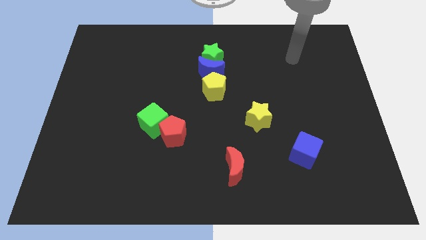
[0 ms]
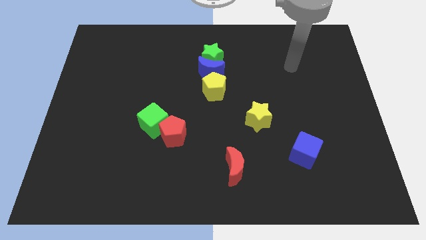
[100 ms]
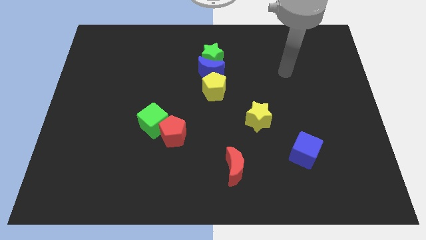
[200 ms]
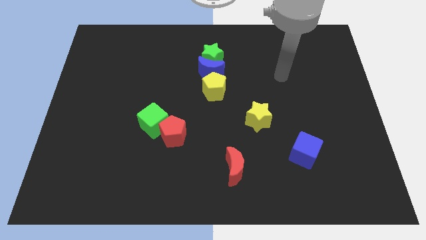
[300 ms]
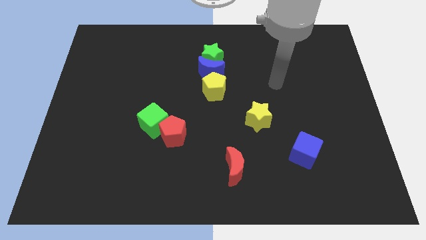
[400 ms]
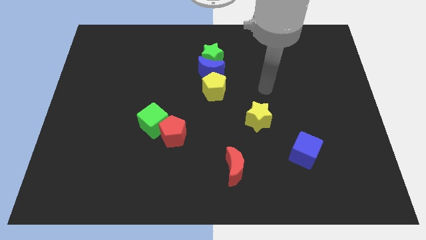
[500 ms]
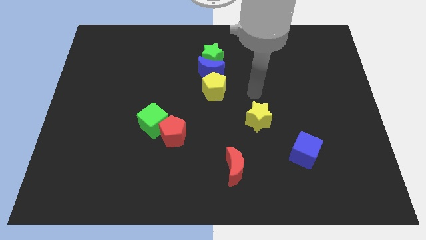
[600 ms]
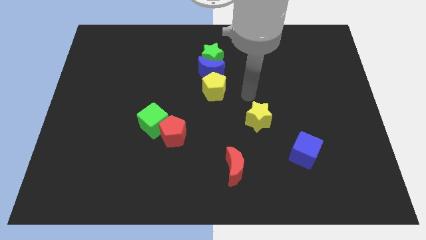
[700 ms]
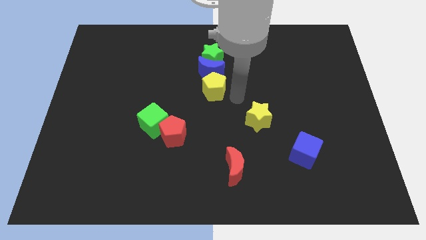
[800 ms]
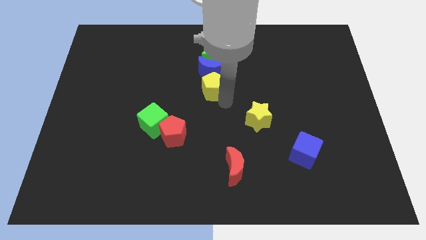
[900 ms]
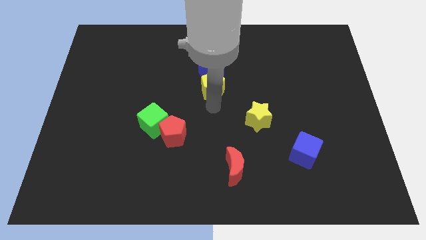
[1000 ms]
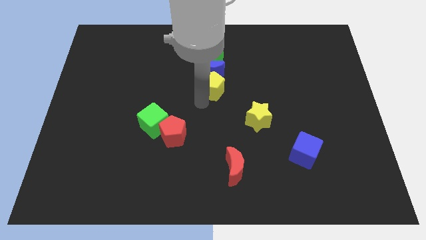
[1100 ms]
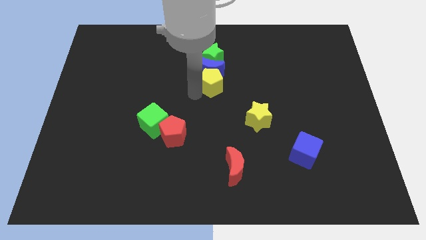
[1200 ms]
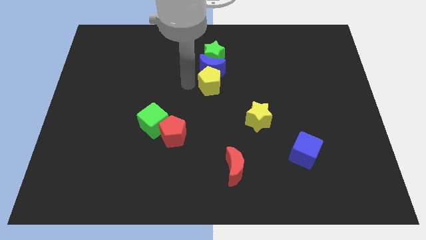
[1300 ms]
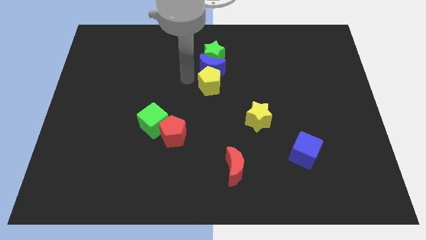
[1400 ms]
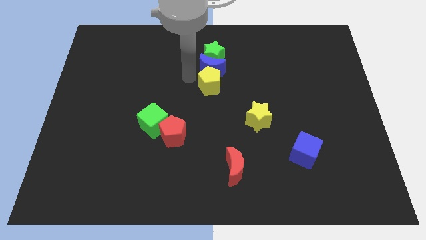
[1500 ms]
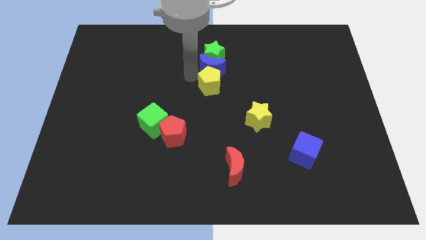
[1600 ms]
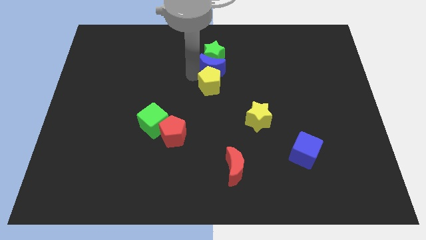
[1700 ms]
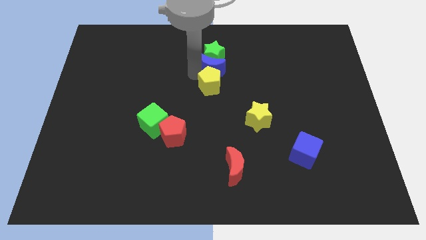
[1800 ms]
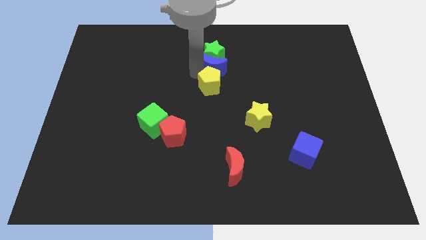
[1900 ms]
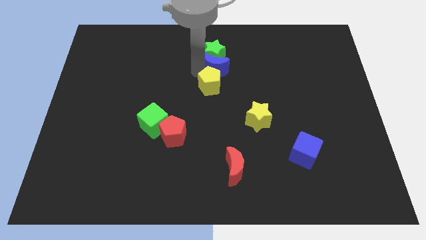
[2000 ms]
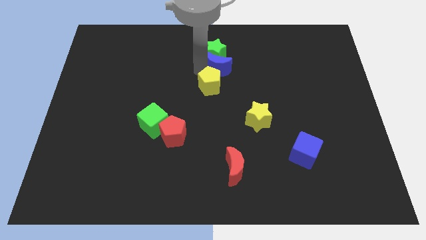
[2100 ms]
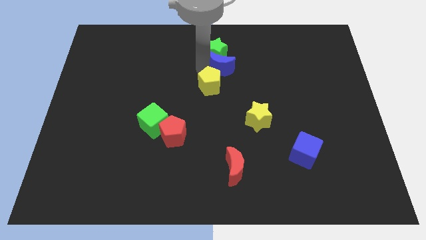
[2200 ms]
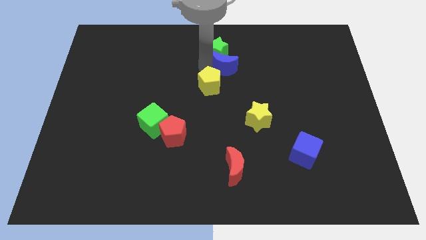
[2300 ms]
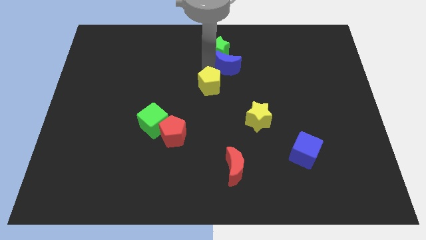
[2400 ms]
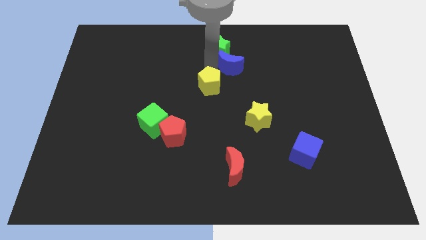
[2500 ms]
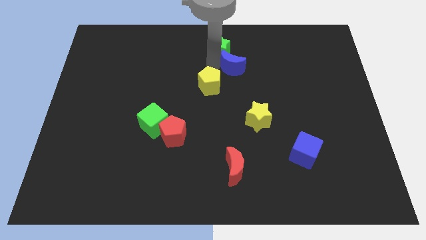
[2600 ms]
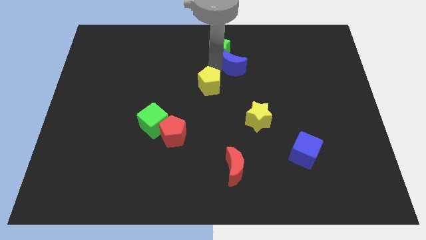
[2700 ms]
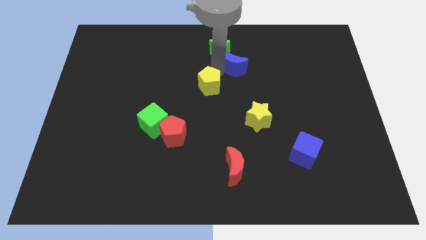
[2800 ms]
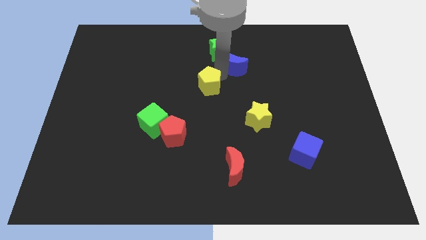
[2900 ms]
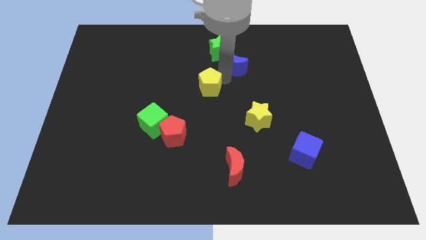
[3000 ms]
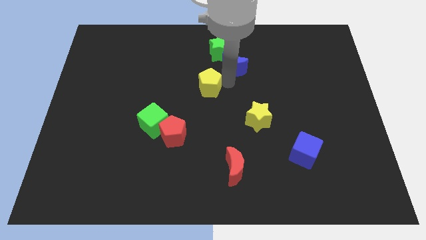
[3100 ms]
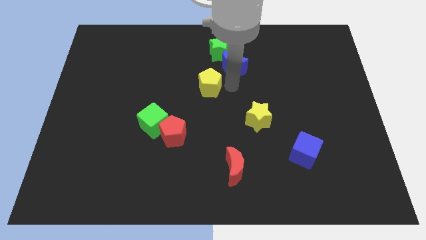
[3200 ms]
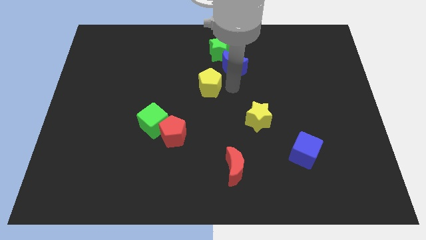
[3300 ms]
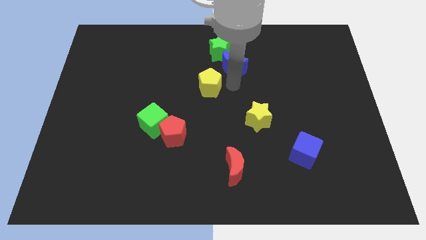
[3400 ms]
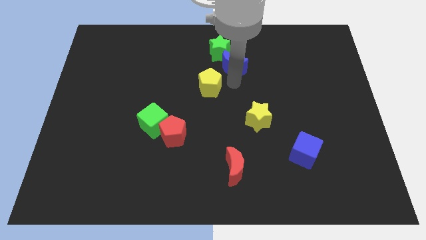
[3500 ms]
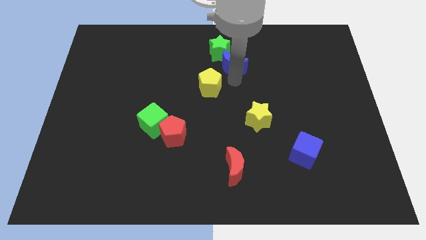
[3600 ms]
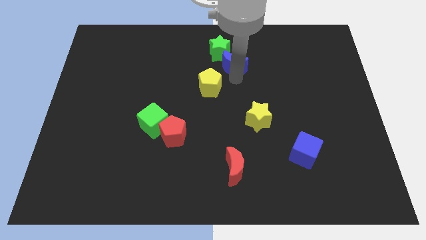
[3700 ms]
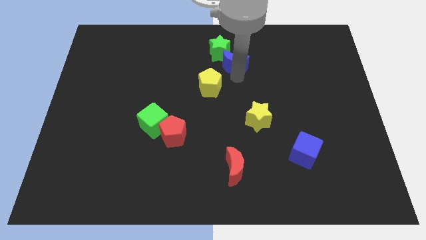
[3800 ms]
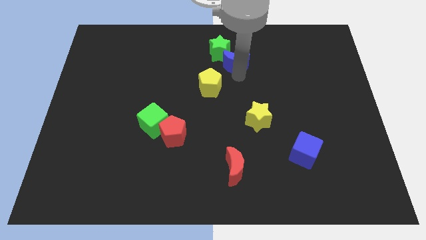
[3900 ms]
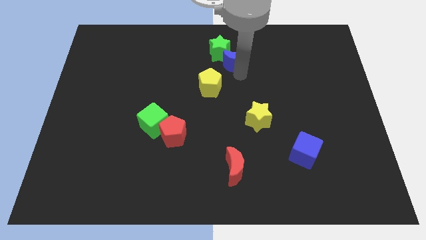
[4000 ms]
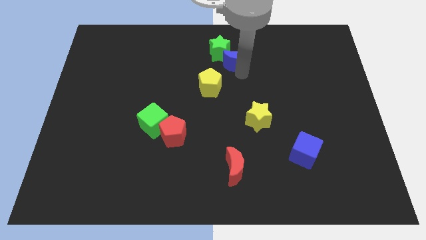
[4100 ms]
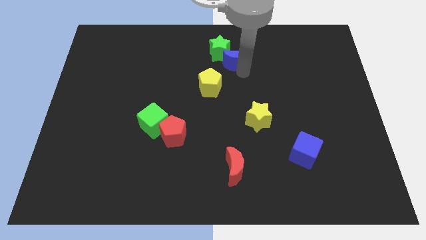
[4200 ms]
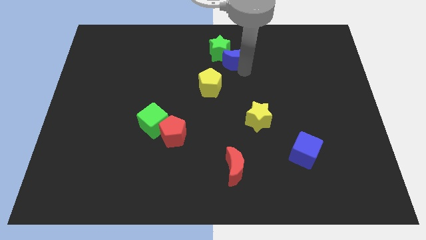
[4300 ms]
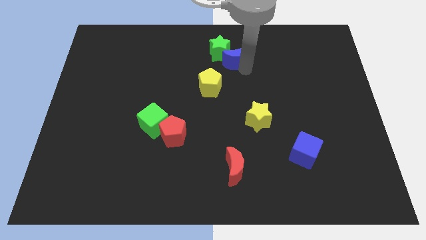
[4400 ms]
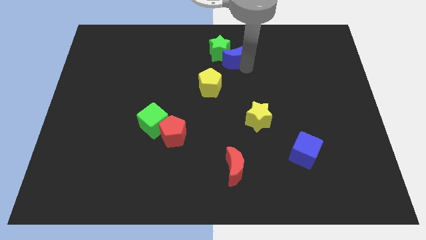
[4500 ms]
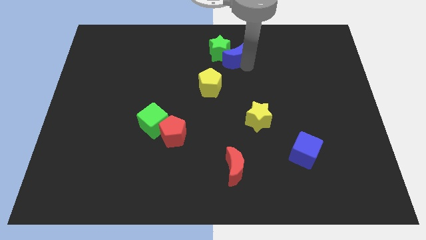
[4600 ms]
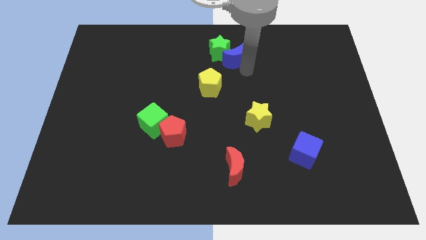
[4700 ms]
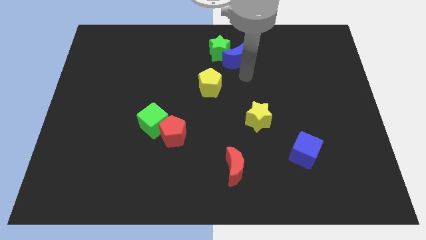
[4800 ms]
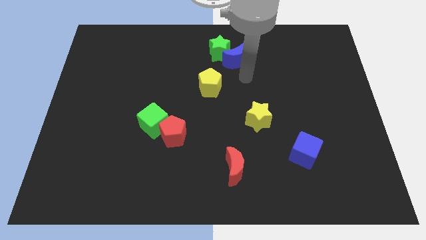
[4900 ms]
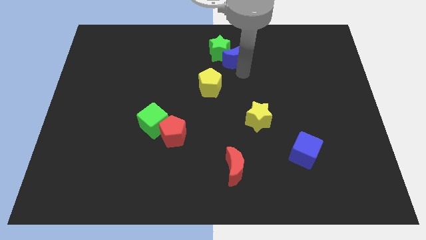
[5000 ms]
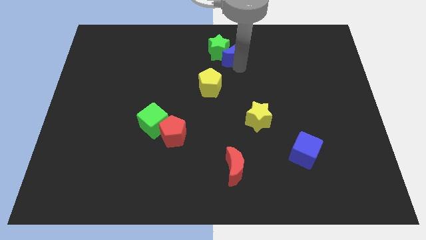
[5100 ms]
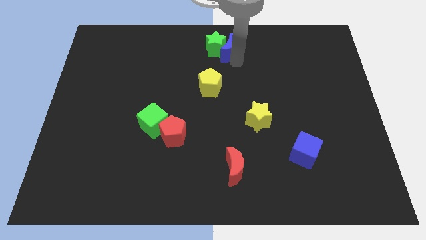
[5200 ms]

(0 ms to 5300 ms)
put the blue moon to the top

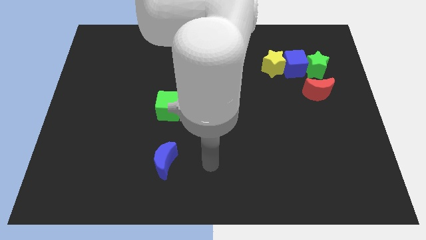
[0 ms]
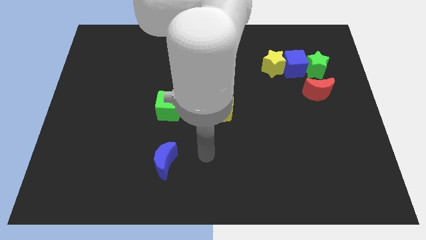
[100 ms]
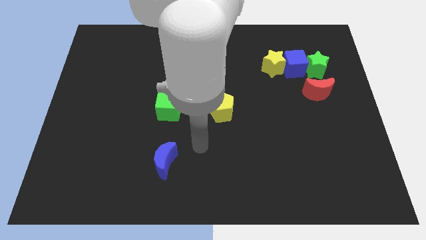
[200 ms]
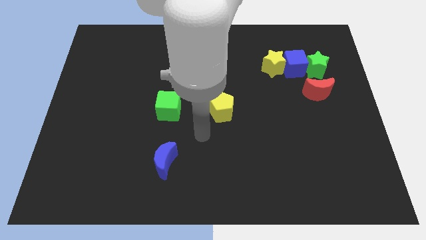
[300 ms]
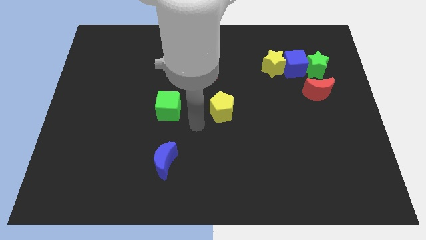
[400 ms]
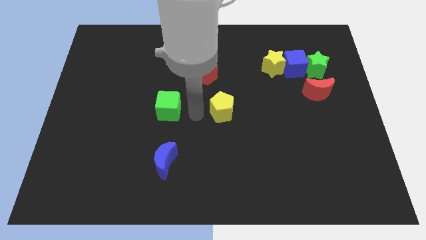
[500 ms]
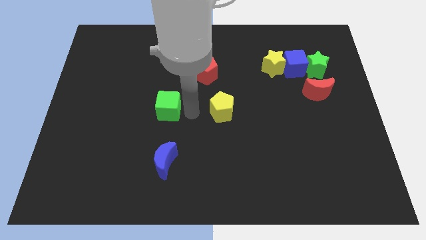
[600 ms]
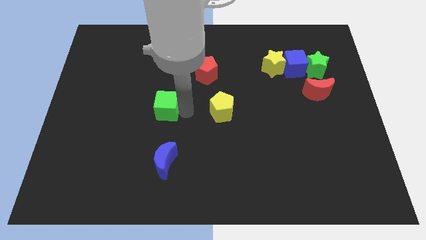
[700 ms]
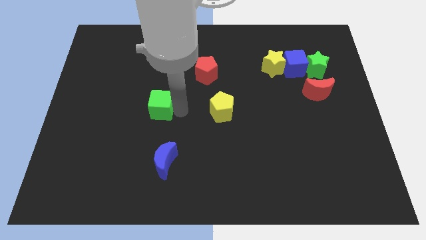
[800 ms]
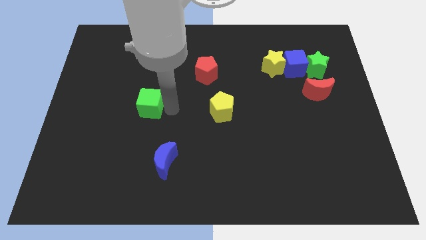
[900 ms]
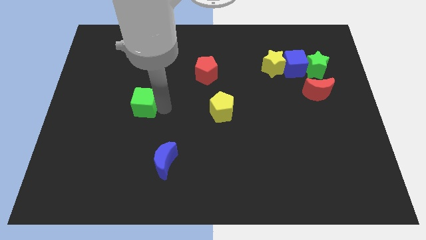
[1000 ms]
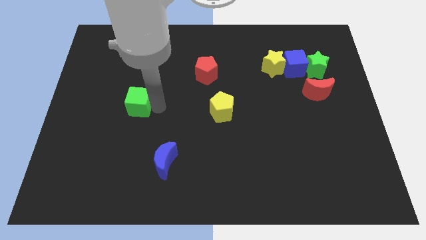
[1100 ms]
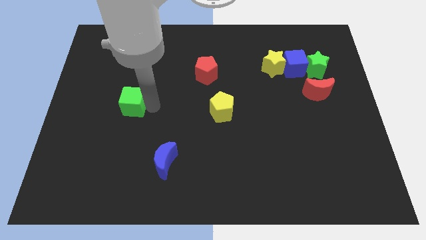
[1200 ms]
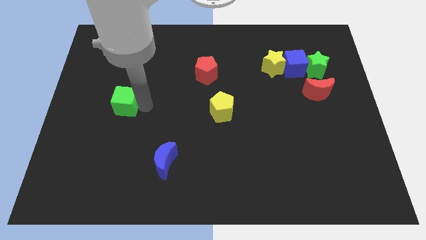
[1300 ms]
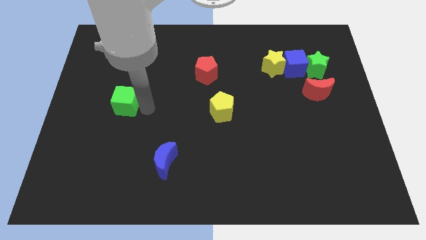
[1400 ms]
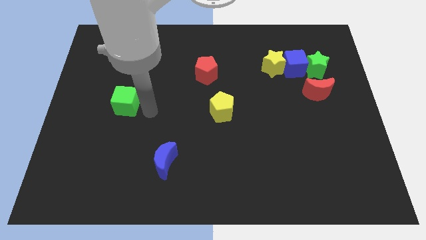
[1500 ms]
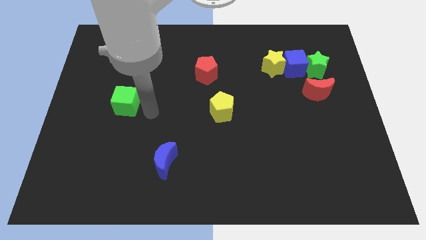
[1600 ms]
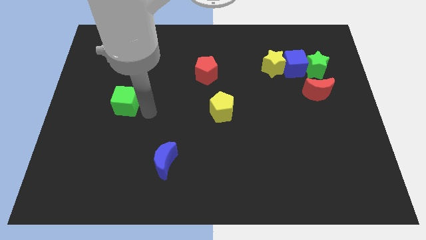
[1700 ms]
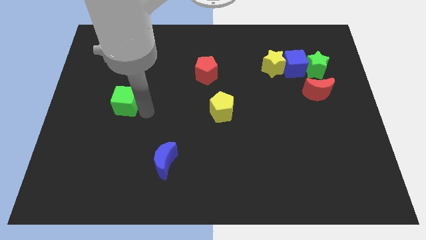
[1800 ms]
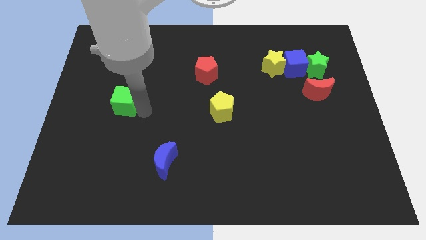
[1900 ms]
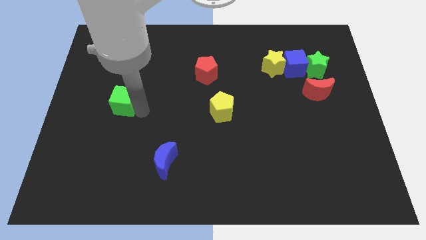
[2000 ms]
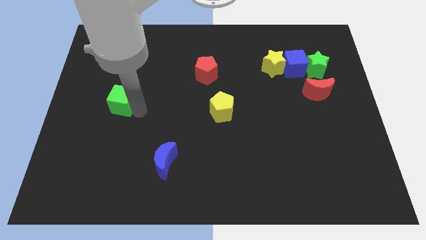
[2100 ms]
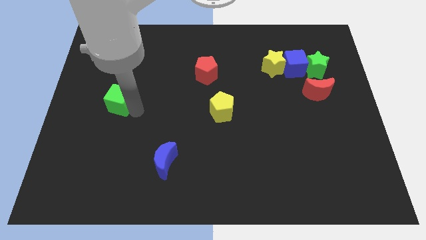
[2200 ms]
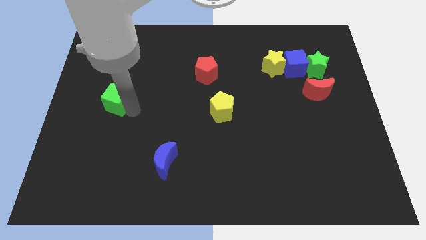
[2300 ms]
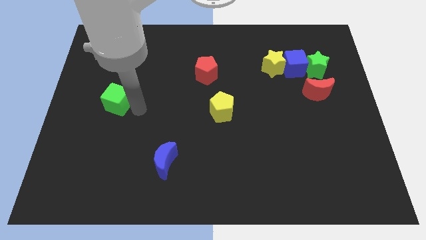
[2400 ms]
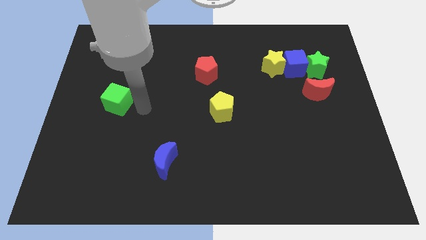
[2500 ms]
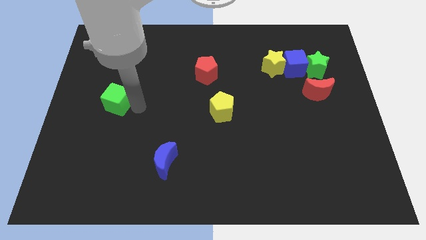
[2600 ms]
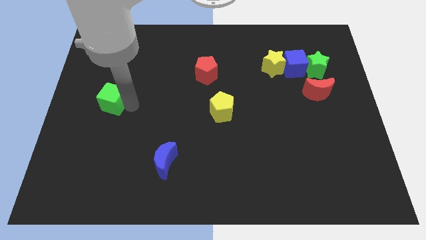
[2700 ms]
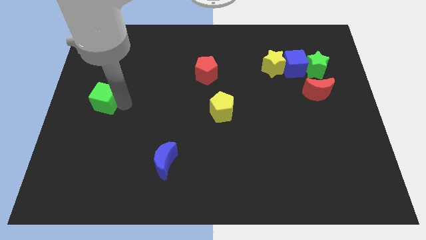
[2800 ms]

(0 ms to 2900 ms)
move the green cube to the left side
